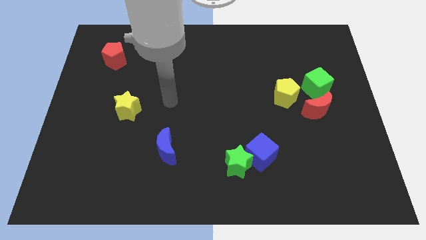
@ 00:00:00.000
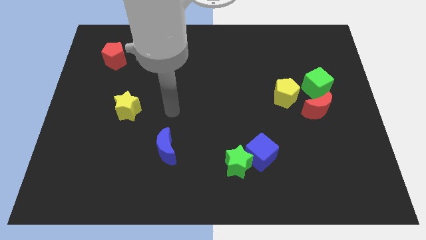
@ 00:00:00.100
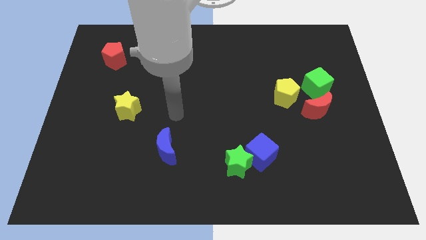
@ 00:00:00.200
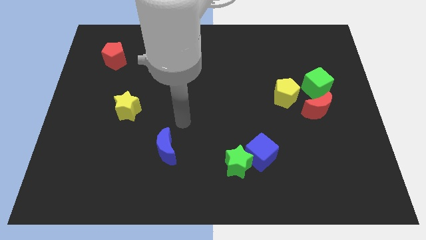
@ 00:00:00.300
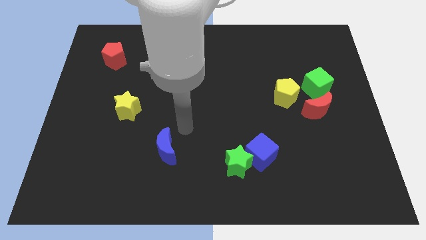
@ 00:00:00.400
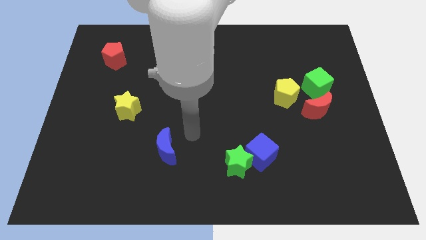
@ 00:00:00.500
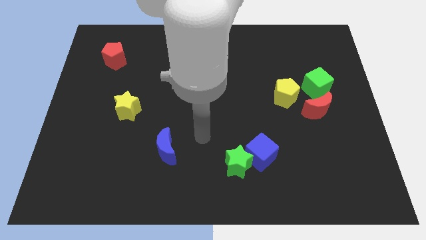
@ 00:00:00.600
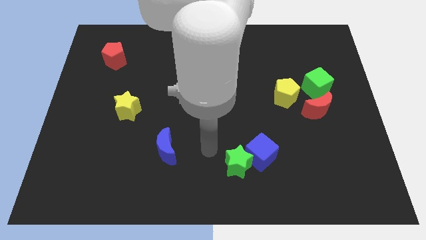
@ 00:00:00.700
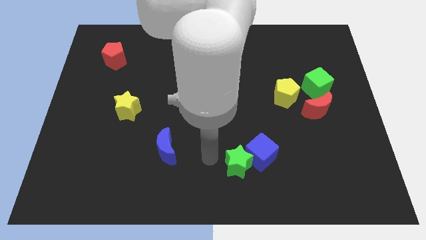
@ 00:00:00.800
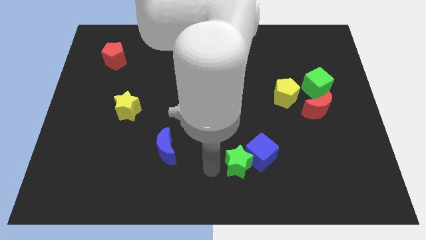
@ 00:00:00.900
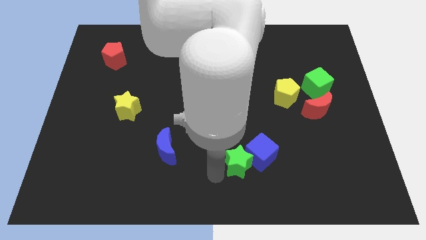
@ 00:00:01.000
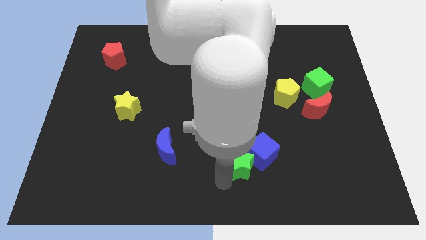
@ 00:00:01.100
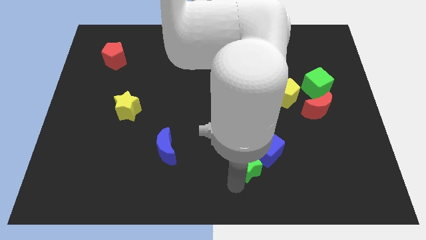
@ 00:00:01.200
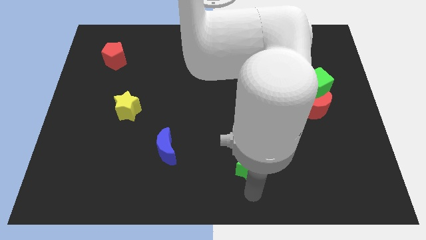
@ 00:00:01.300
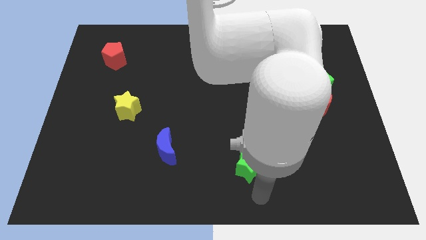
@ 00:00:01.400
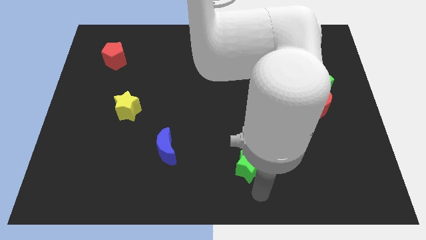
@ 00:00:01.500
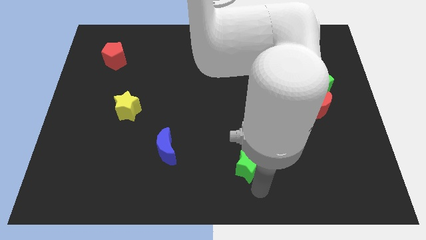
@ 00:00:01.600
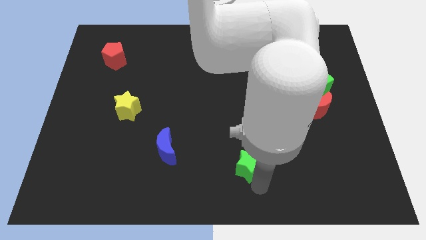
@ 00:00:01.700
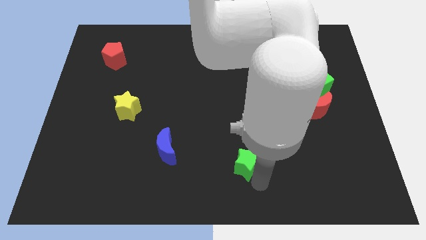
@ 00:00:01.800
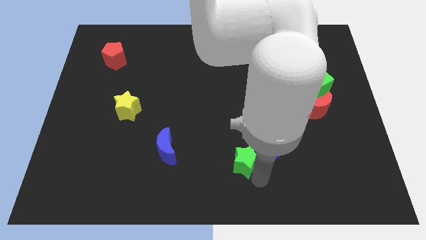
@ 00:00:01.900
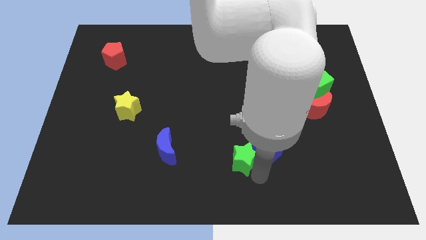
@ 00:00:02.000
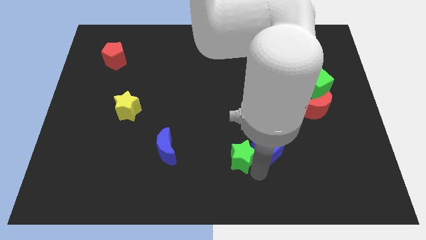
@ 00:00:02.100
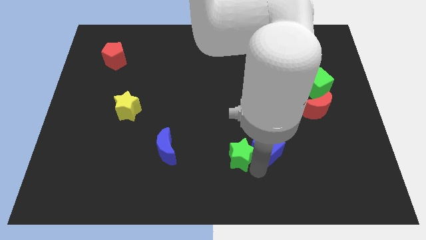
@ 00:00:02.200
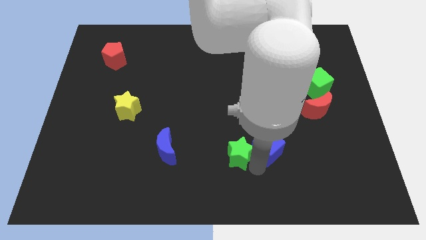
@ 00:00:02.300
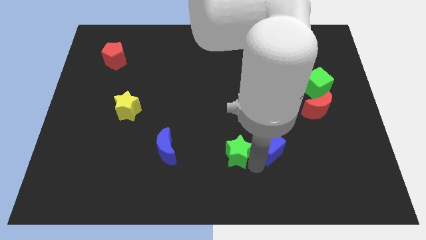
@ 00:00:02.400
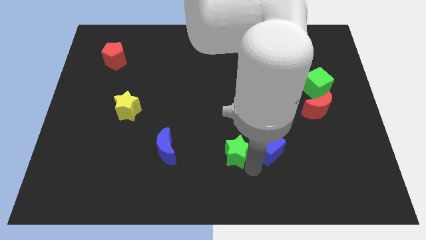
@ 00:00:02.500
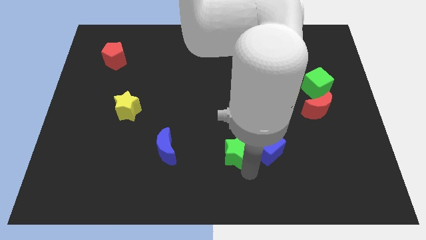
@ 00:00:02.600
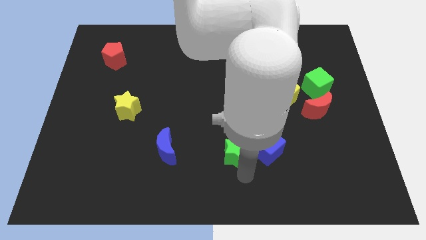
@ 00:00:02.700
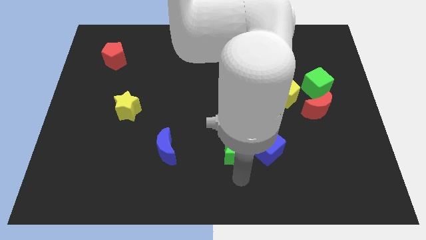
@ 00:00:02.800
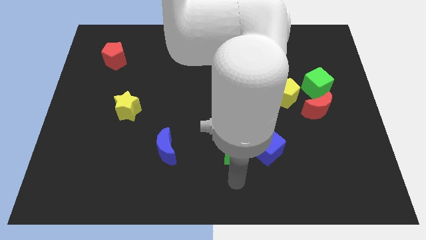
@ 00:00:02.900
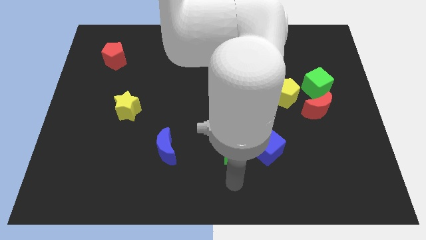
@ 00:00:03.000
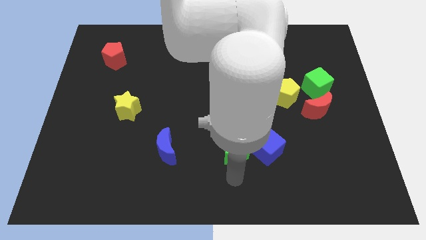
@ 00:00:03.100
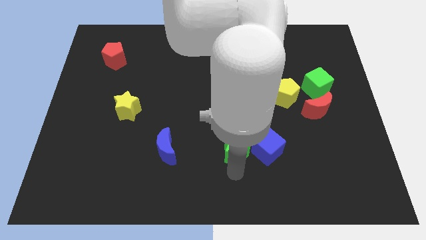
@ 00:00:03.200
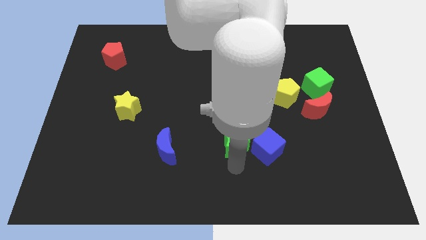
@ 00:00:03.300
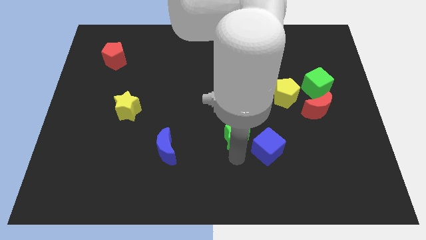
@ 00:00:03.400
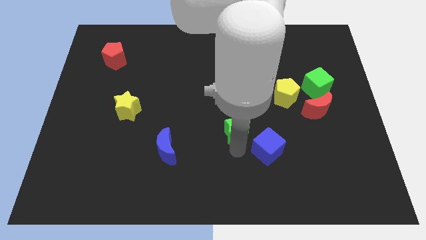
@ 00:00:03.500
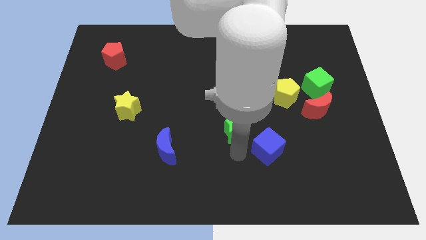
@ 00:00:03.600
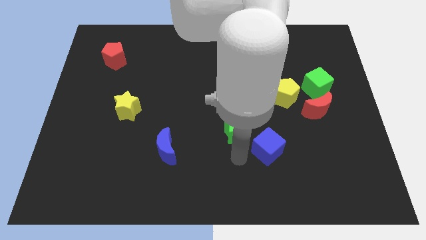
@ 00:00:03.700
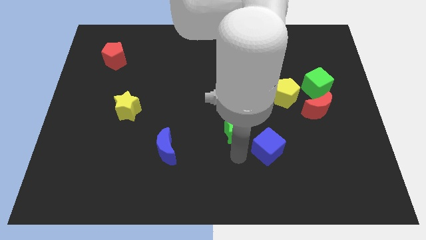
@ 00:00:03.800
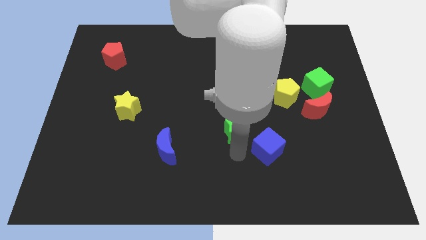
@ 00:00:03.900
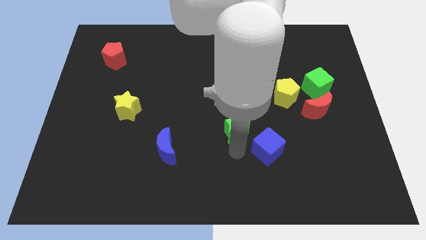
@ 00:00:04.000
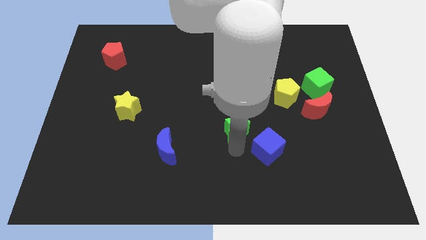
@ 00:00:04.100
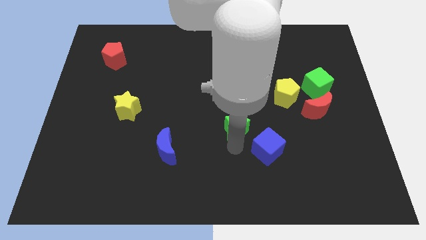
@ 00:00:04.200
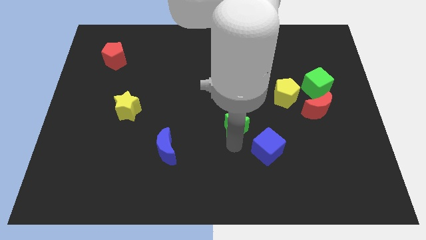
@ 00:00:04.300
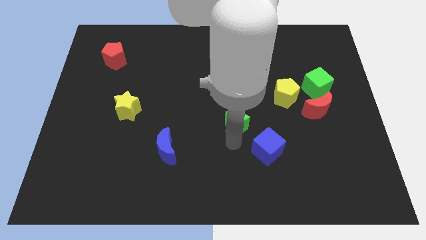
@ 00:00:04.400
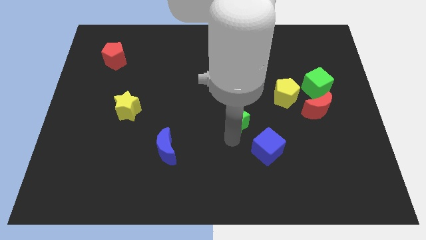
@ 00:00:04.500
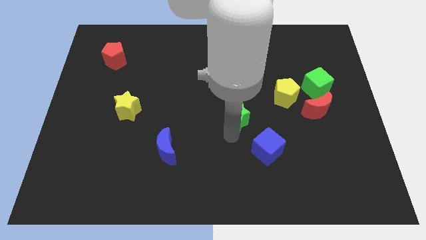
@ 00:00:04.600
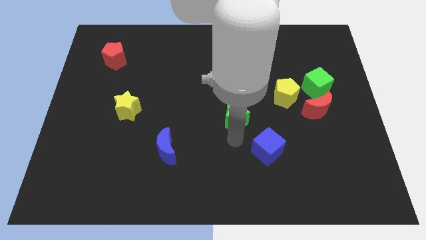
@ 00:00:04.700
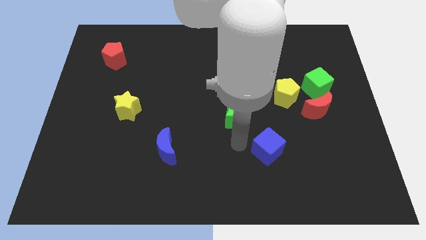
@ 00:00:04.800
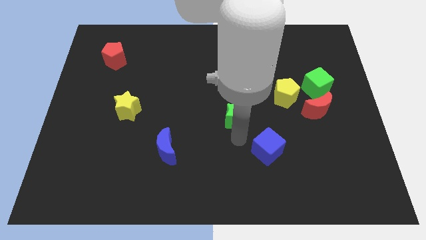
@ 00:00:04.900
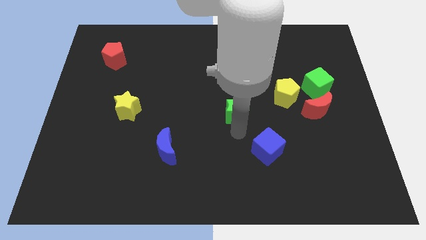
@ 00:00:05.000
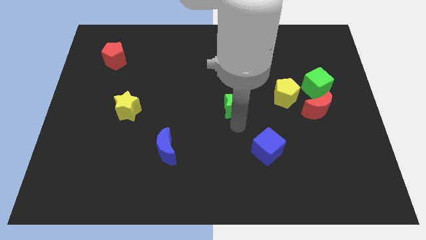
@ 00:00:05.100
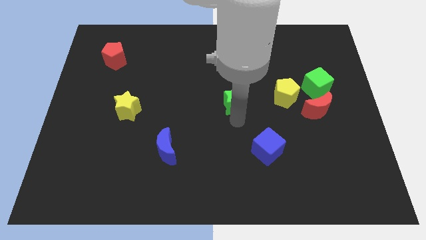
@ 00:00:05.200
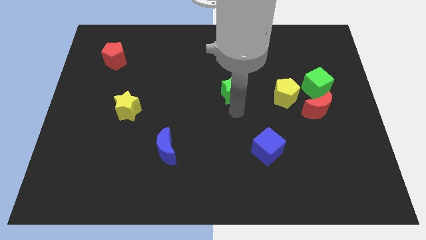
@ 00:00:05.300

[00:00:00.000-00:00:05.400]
move the green star upwards

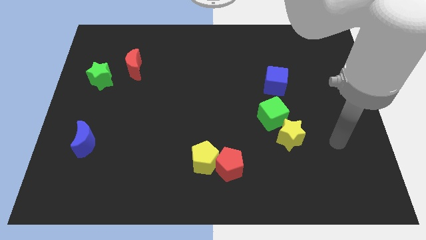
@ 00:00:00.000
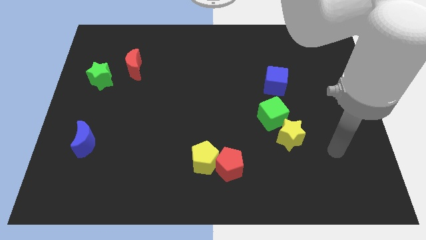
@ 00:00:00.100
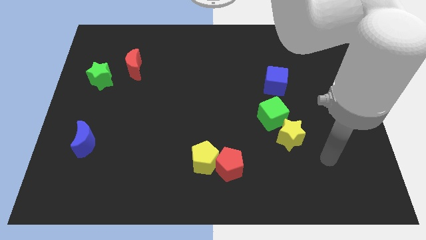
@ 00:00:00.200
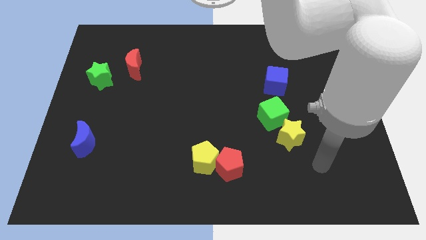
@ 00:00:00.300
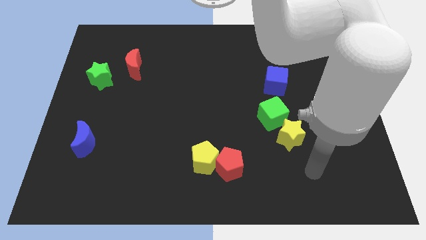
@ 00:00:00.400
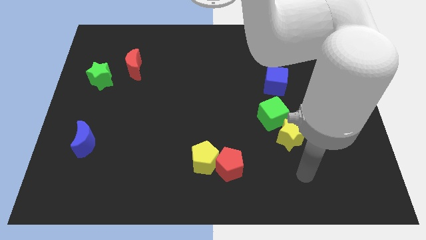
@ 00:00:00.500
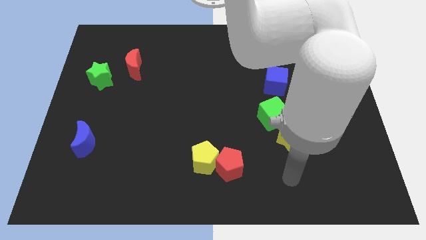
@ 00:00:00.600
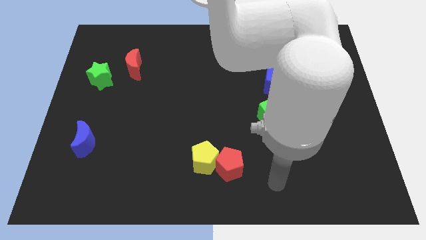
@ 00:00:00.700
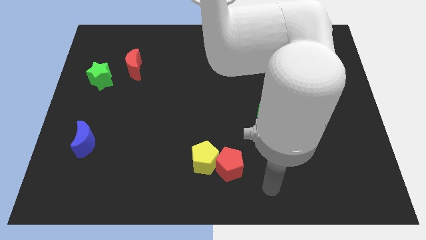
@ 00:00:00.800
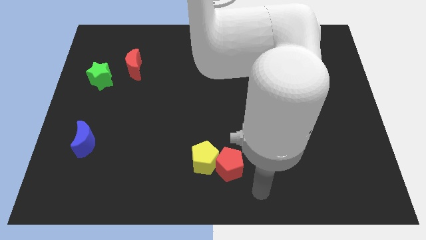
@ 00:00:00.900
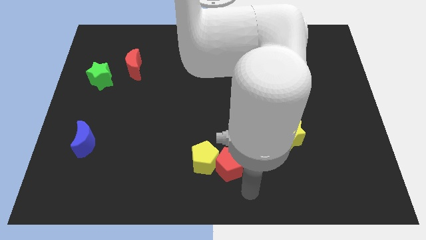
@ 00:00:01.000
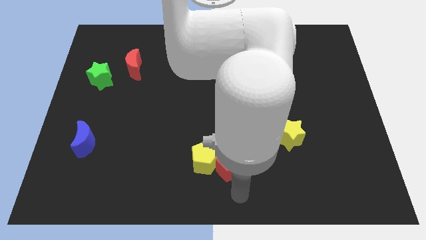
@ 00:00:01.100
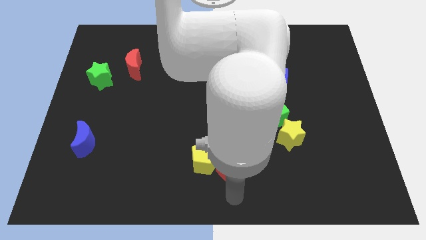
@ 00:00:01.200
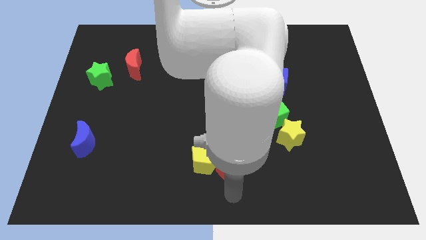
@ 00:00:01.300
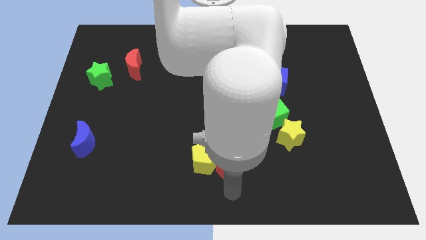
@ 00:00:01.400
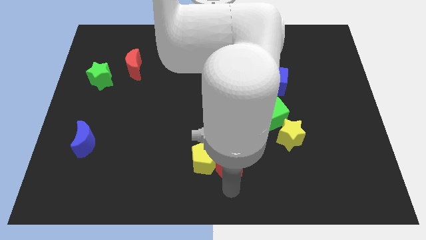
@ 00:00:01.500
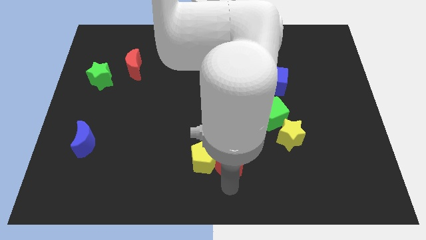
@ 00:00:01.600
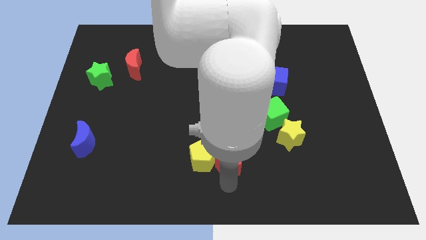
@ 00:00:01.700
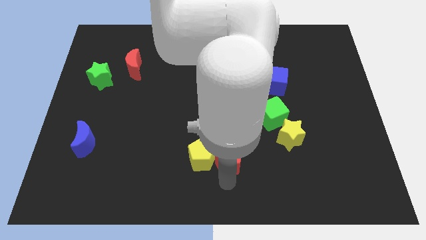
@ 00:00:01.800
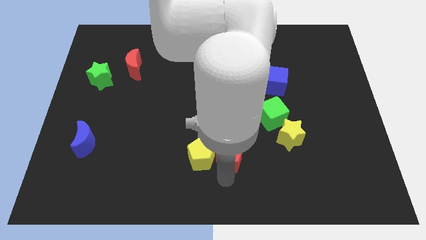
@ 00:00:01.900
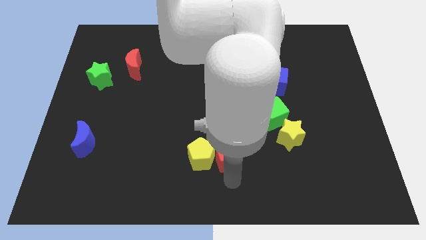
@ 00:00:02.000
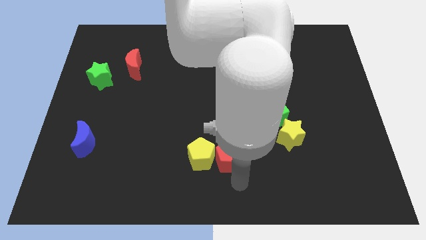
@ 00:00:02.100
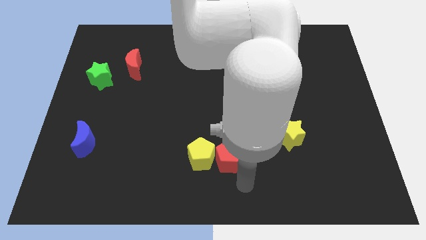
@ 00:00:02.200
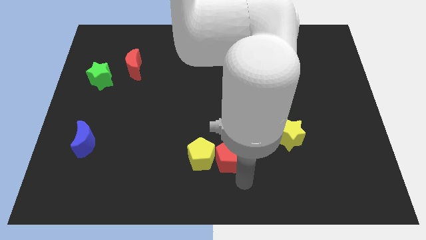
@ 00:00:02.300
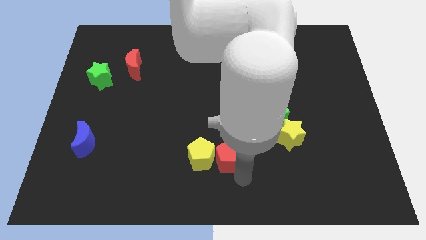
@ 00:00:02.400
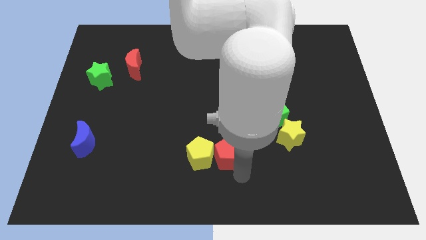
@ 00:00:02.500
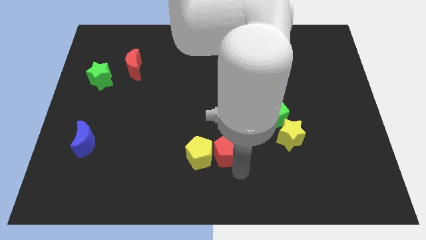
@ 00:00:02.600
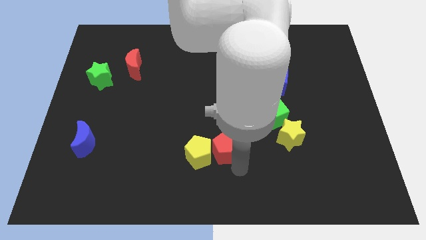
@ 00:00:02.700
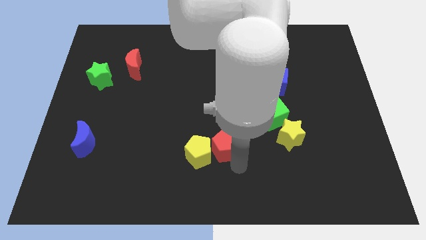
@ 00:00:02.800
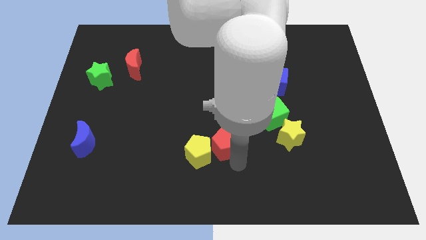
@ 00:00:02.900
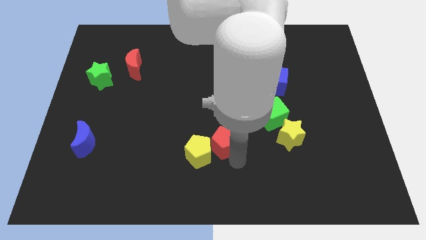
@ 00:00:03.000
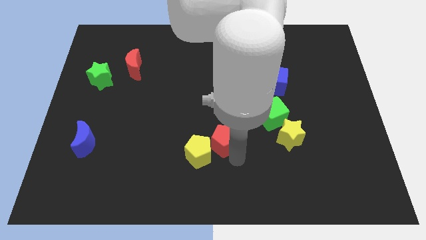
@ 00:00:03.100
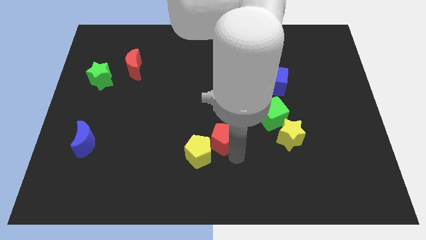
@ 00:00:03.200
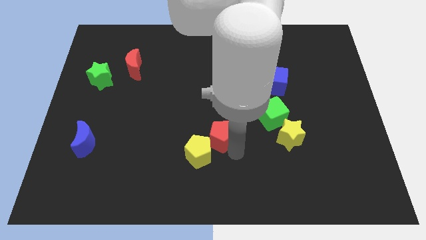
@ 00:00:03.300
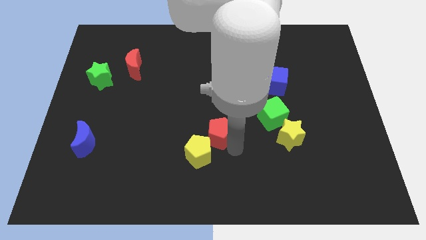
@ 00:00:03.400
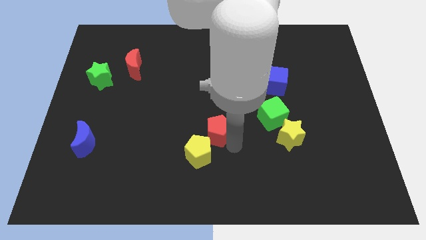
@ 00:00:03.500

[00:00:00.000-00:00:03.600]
slightly slide the red pentagon up and to the left
